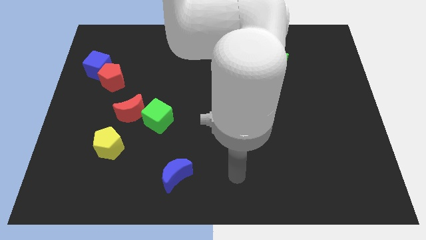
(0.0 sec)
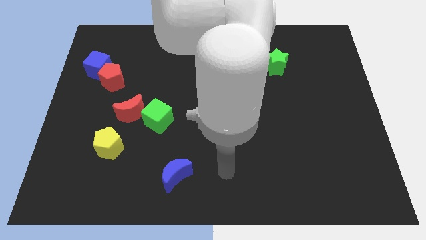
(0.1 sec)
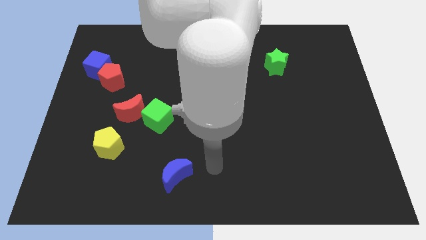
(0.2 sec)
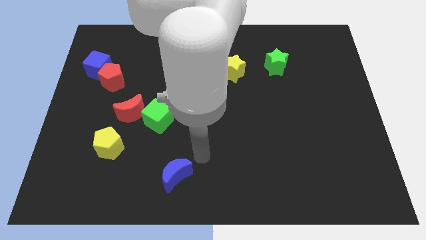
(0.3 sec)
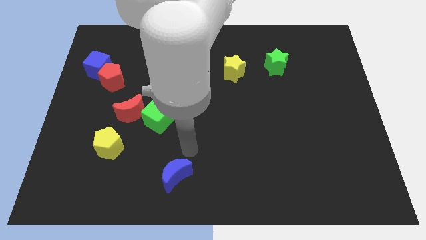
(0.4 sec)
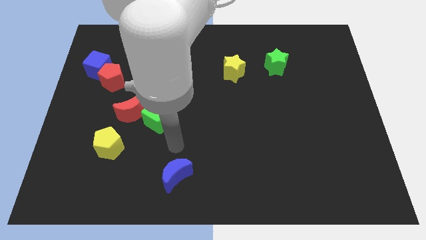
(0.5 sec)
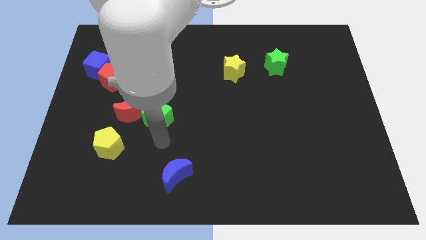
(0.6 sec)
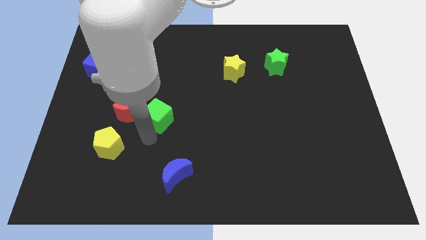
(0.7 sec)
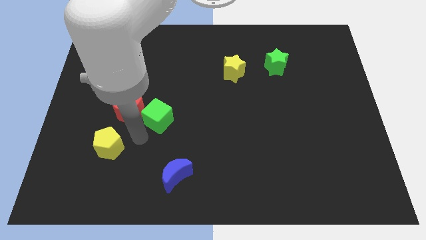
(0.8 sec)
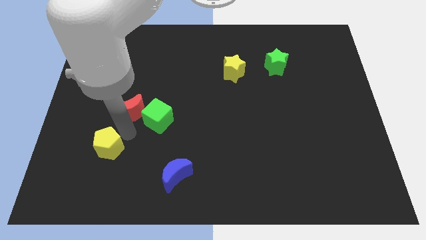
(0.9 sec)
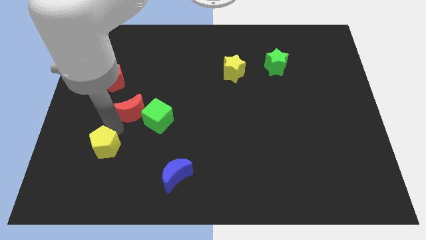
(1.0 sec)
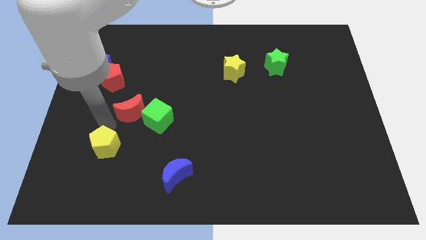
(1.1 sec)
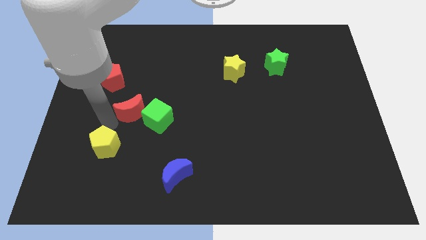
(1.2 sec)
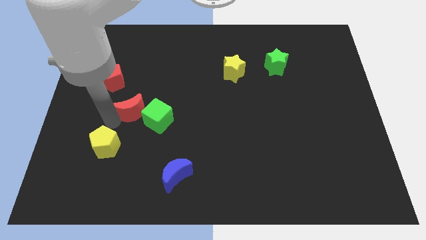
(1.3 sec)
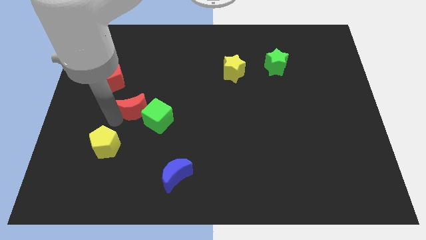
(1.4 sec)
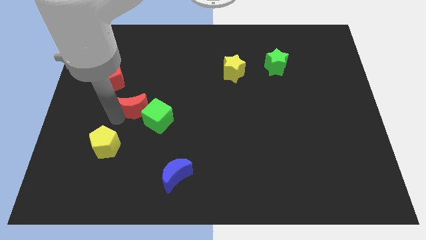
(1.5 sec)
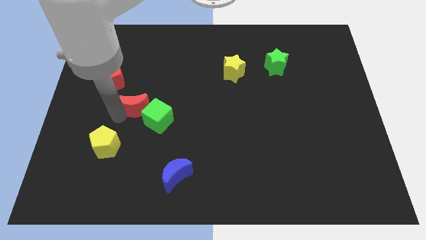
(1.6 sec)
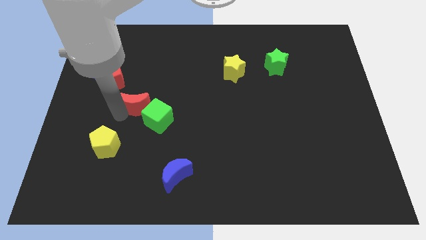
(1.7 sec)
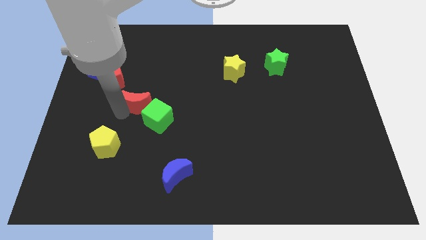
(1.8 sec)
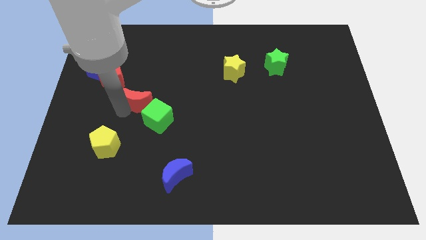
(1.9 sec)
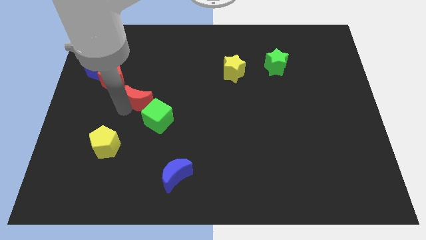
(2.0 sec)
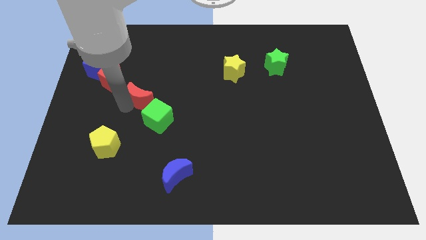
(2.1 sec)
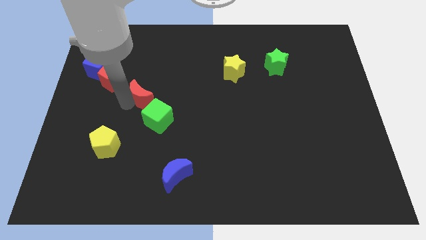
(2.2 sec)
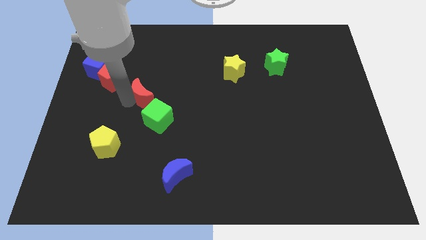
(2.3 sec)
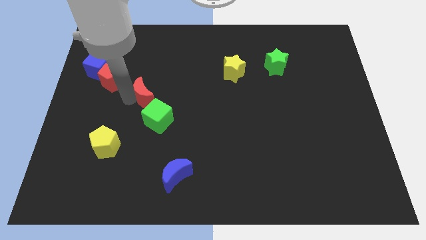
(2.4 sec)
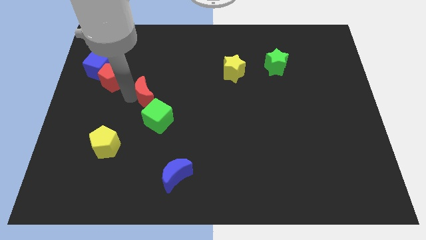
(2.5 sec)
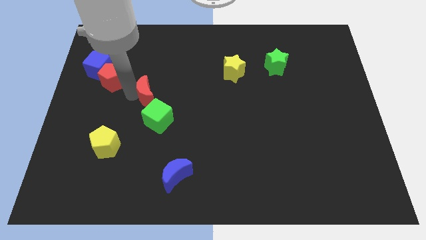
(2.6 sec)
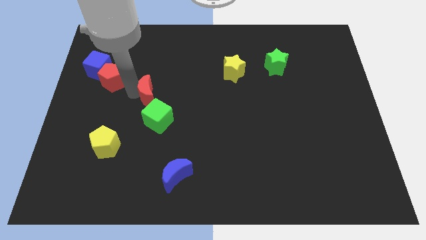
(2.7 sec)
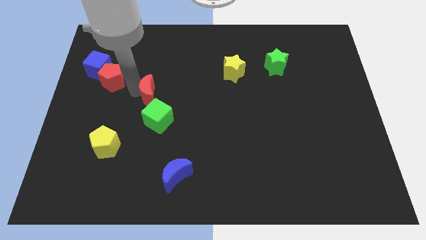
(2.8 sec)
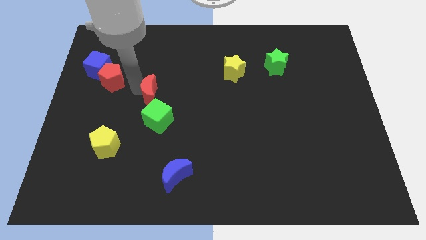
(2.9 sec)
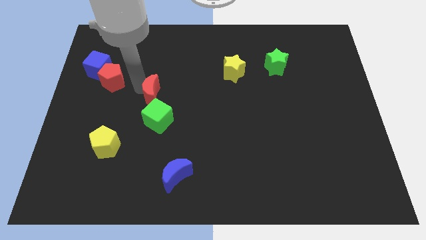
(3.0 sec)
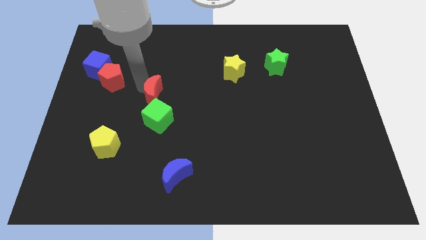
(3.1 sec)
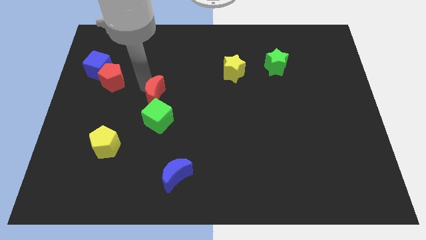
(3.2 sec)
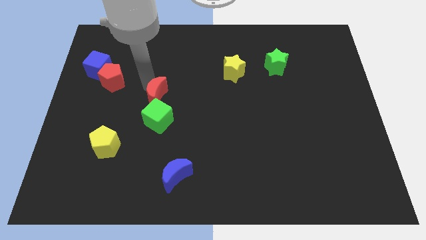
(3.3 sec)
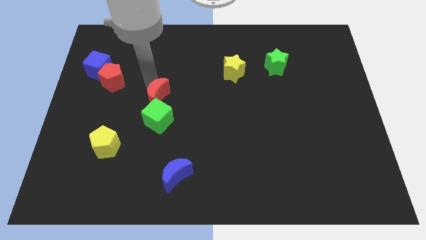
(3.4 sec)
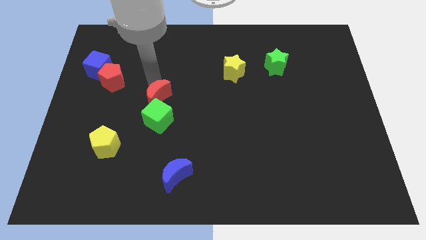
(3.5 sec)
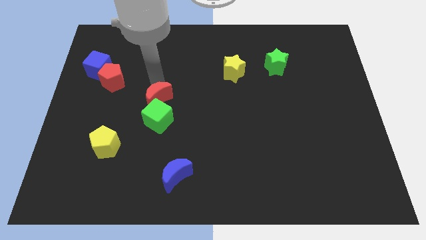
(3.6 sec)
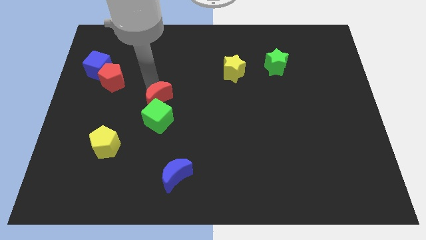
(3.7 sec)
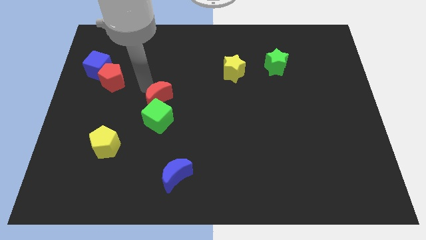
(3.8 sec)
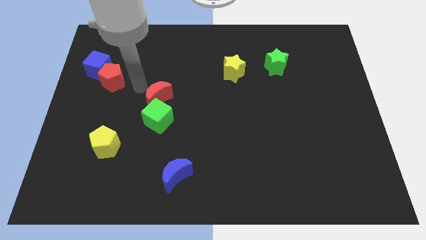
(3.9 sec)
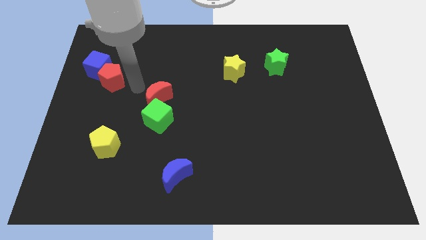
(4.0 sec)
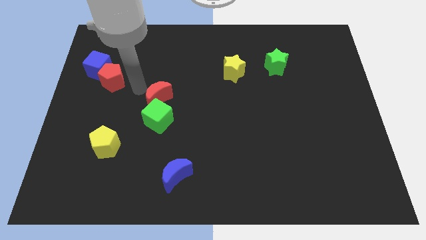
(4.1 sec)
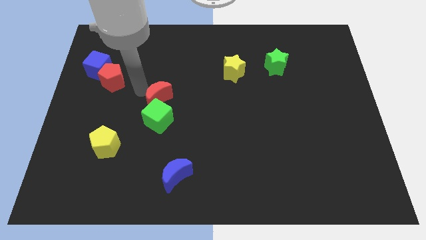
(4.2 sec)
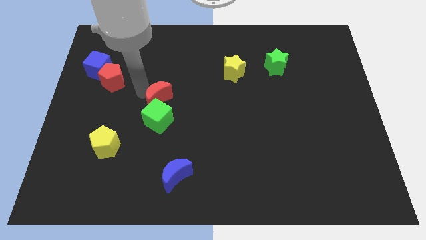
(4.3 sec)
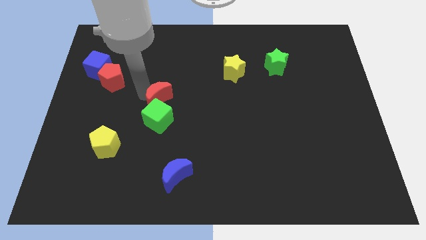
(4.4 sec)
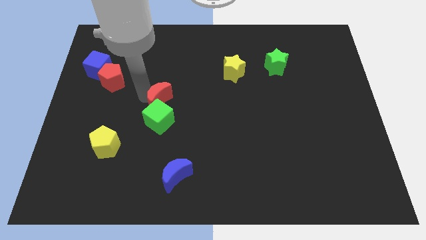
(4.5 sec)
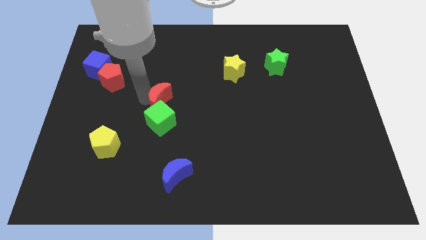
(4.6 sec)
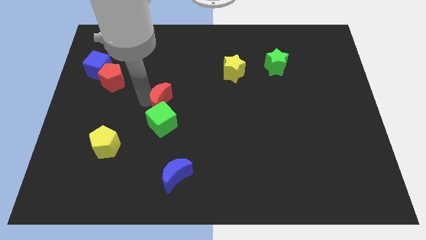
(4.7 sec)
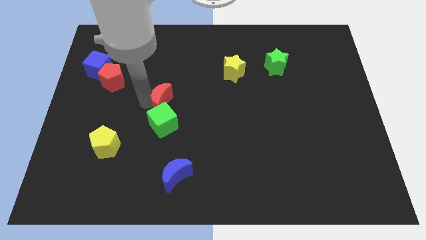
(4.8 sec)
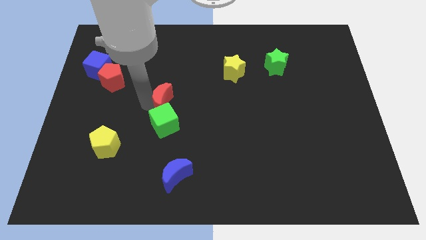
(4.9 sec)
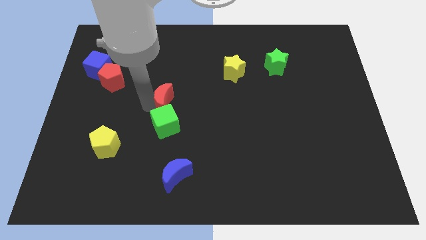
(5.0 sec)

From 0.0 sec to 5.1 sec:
slide the red moon right a little bit

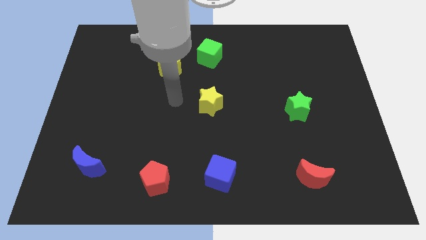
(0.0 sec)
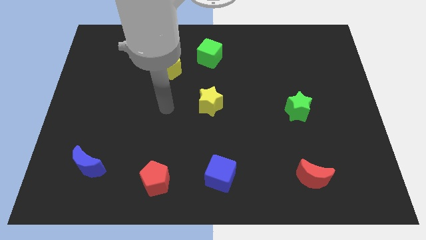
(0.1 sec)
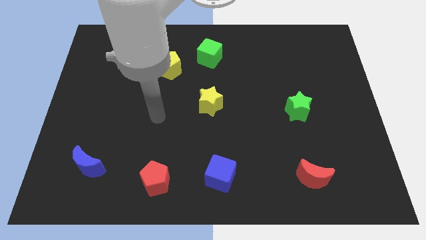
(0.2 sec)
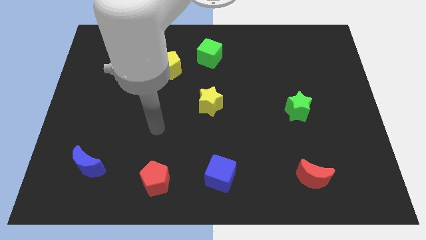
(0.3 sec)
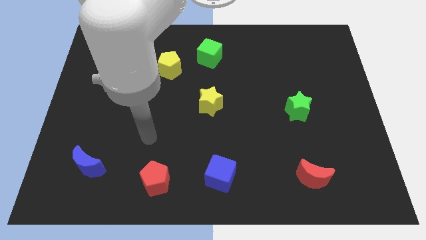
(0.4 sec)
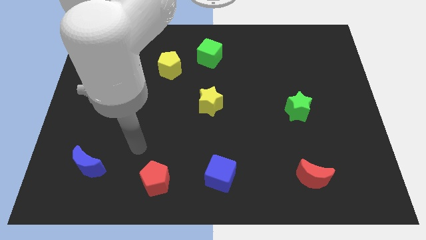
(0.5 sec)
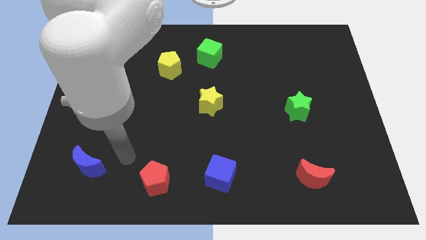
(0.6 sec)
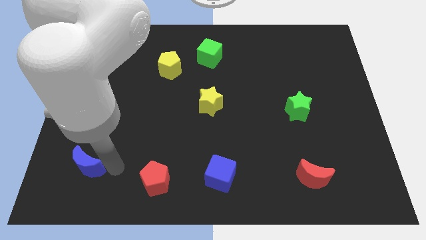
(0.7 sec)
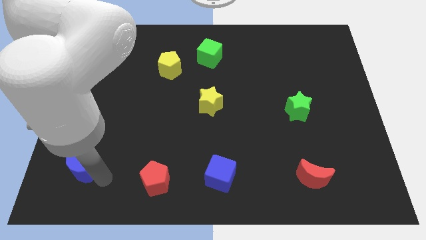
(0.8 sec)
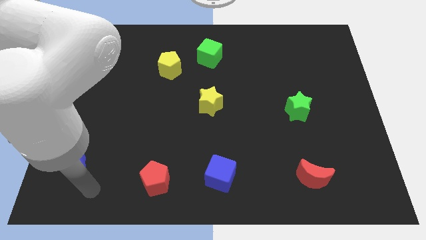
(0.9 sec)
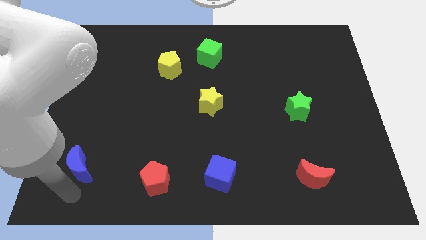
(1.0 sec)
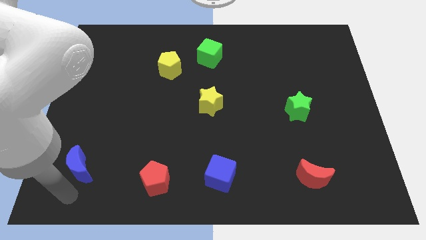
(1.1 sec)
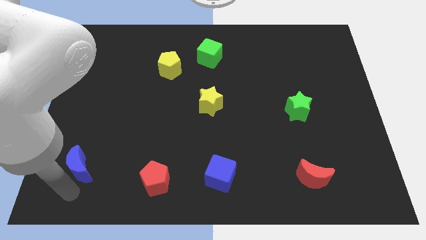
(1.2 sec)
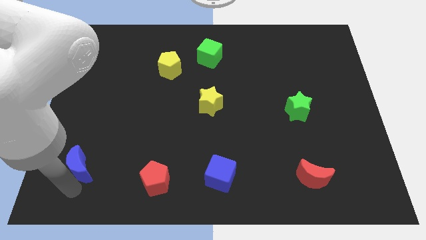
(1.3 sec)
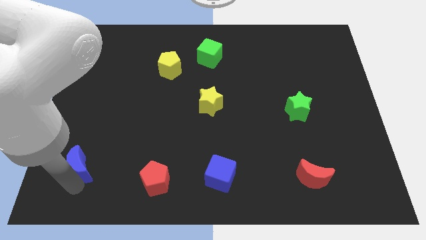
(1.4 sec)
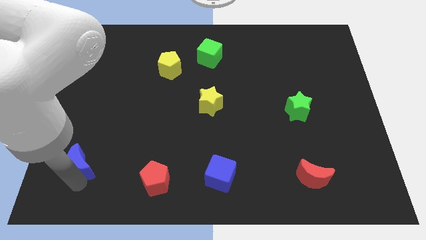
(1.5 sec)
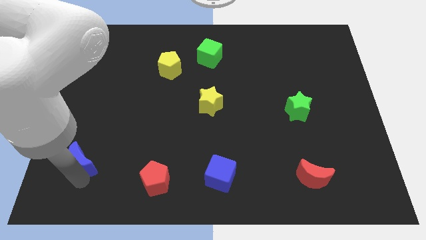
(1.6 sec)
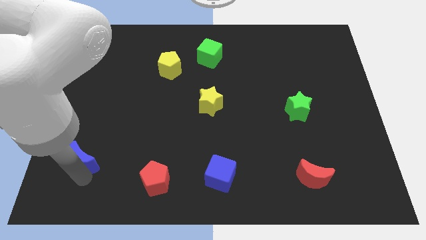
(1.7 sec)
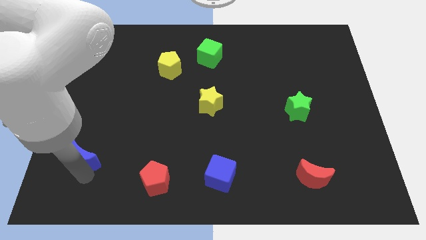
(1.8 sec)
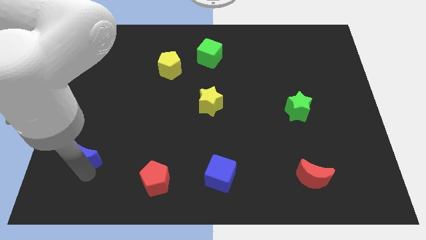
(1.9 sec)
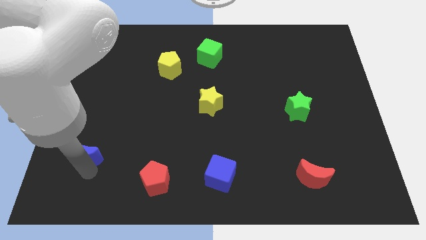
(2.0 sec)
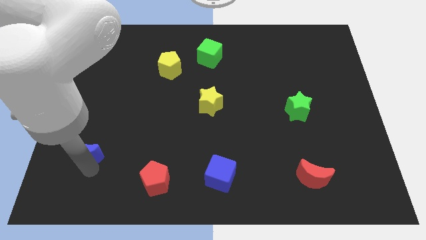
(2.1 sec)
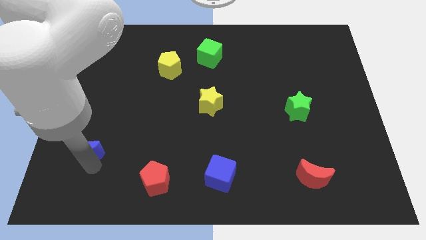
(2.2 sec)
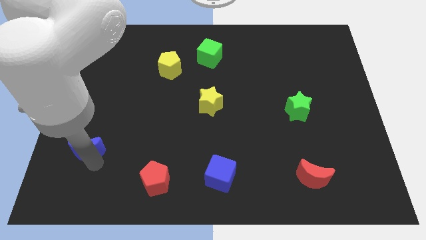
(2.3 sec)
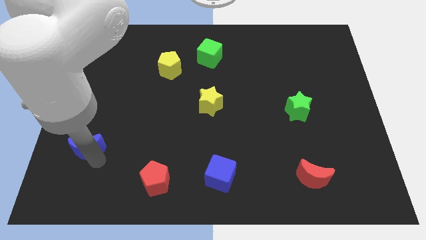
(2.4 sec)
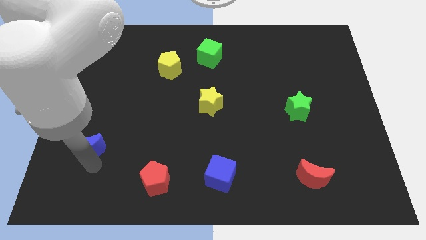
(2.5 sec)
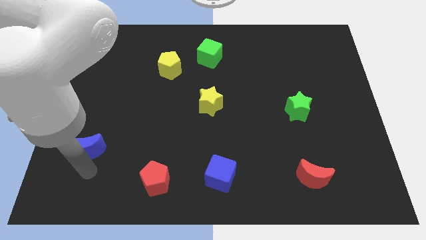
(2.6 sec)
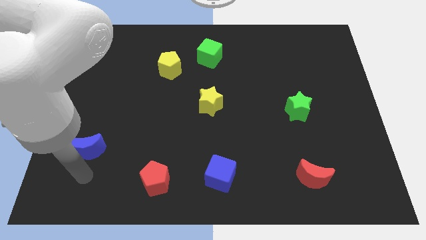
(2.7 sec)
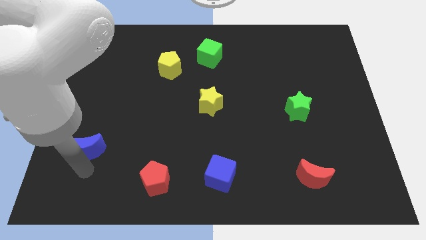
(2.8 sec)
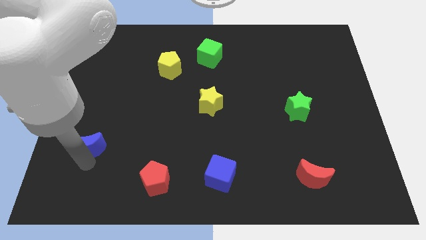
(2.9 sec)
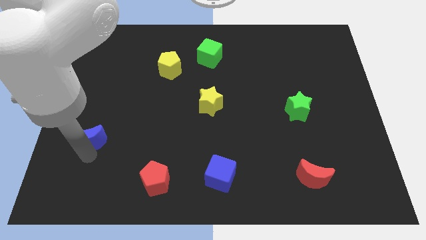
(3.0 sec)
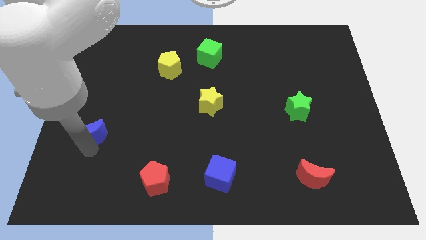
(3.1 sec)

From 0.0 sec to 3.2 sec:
slightly move the blue moon up
